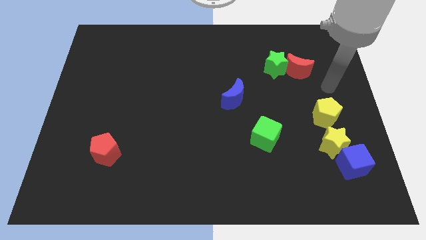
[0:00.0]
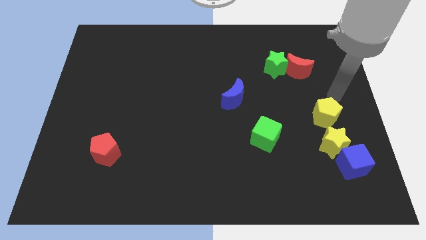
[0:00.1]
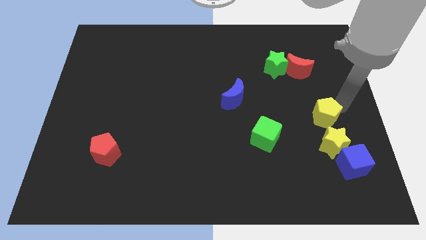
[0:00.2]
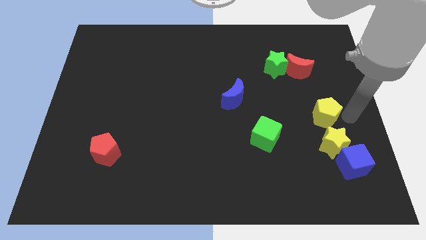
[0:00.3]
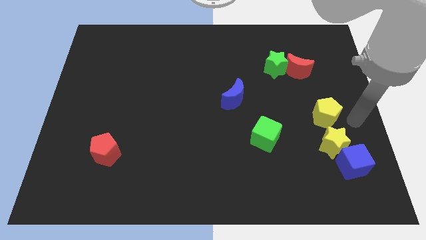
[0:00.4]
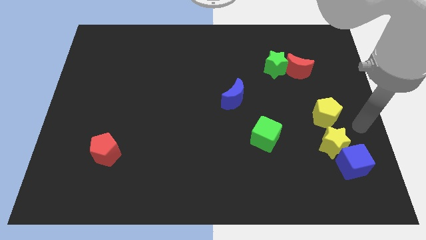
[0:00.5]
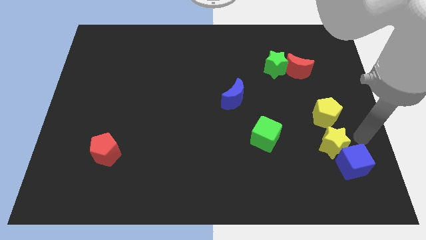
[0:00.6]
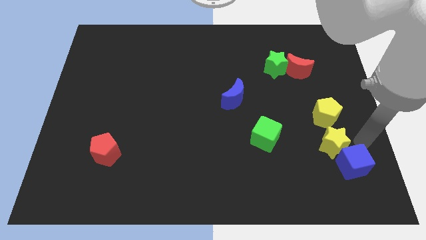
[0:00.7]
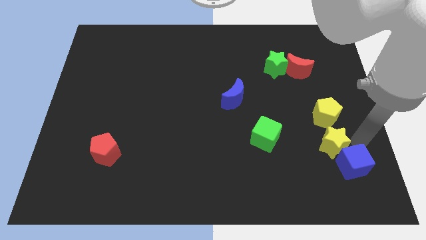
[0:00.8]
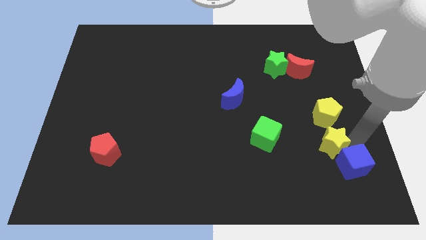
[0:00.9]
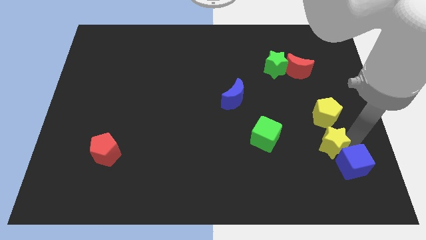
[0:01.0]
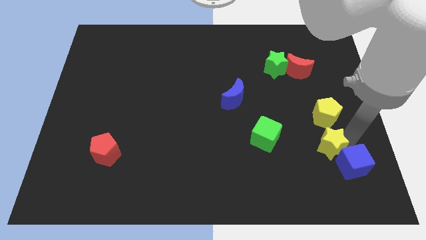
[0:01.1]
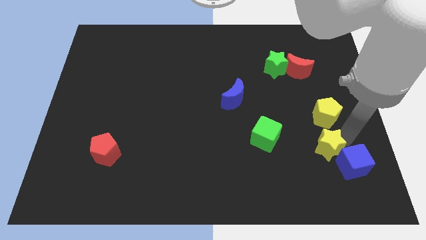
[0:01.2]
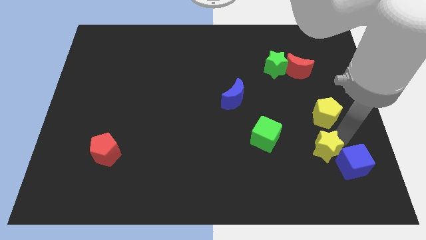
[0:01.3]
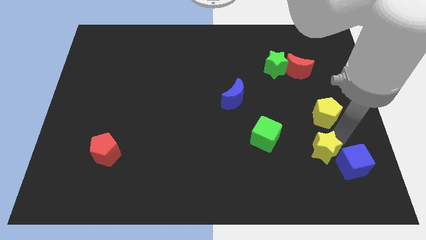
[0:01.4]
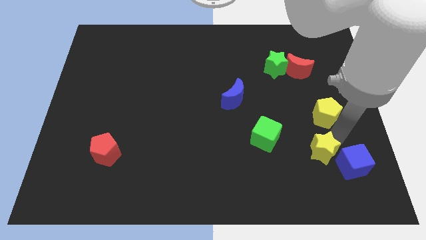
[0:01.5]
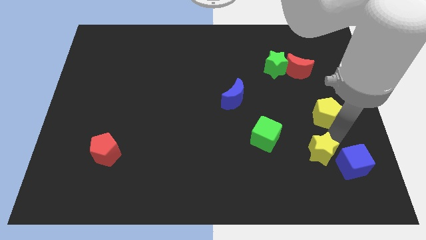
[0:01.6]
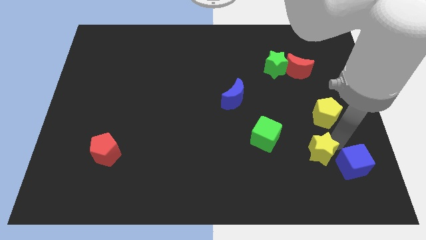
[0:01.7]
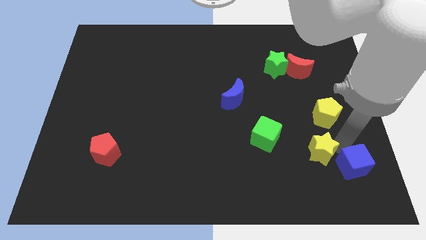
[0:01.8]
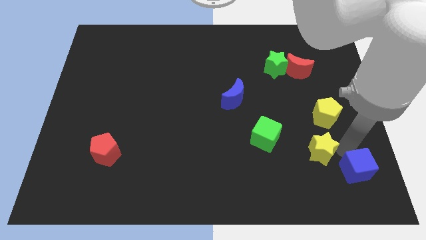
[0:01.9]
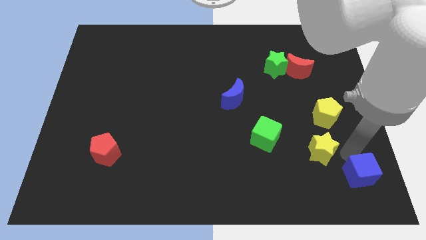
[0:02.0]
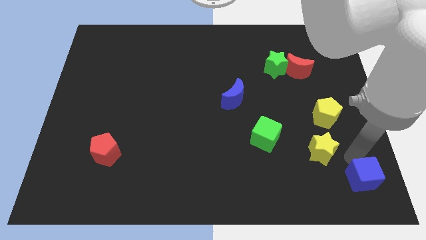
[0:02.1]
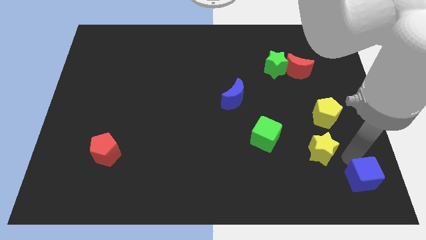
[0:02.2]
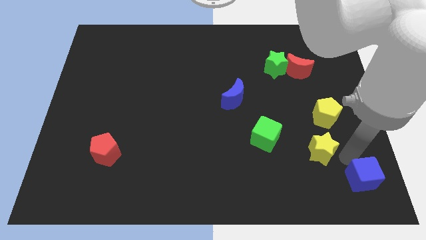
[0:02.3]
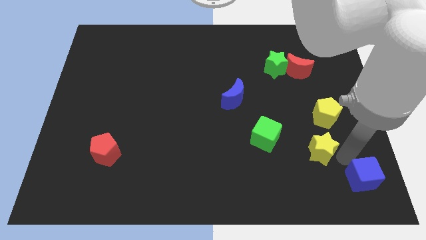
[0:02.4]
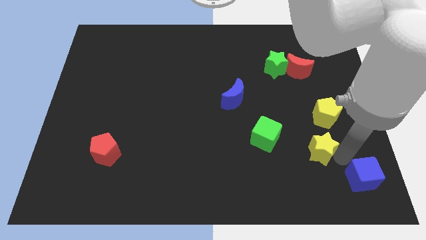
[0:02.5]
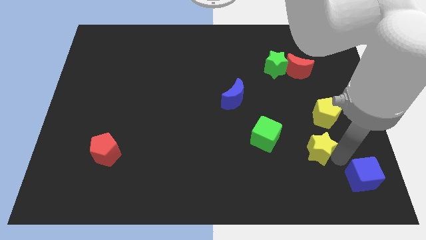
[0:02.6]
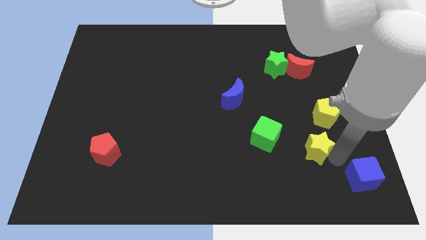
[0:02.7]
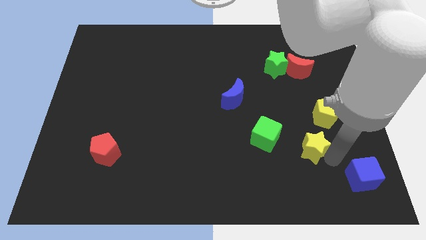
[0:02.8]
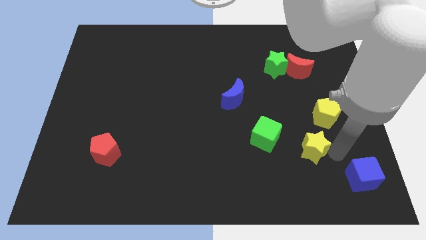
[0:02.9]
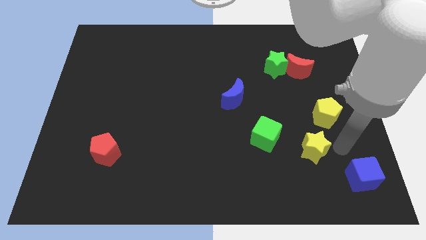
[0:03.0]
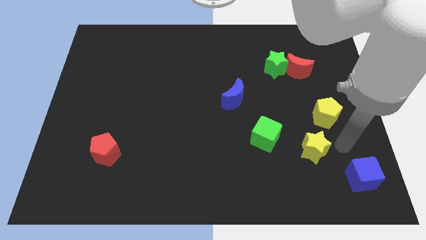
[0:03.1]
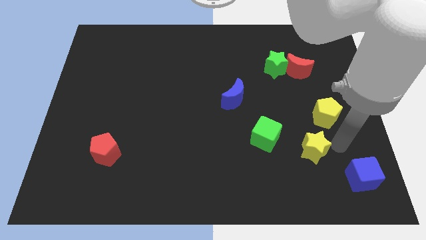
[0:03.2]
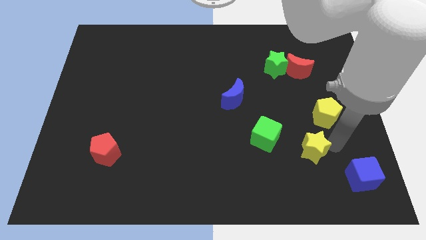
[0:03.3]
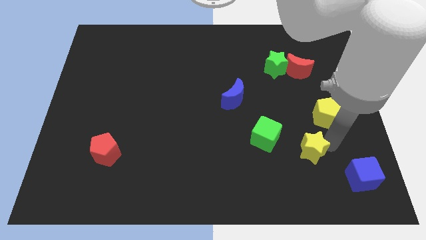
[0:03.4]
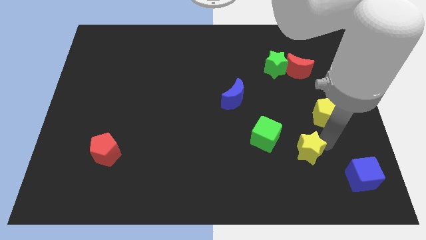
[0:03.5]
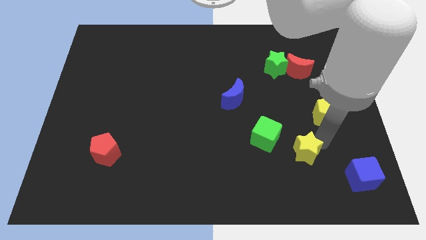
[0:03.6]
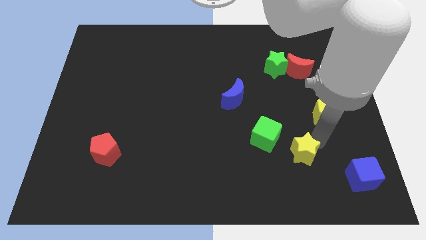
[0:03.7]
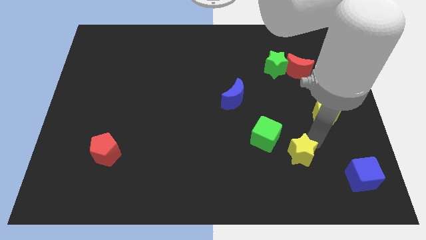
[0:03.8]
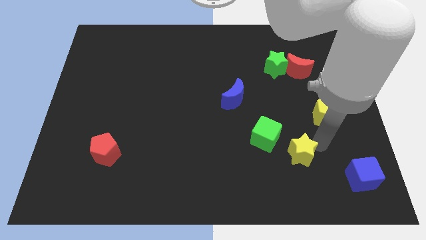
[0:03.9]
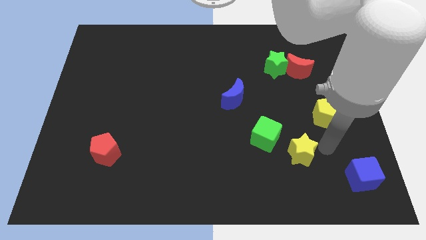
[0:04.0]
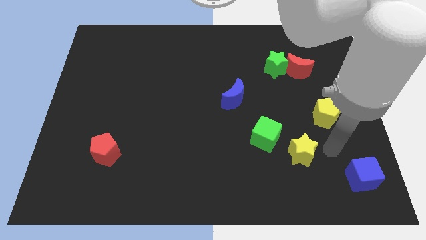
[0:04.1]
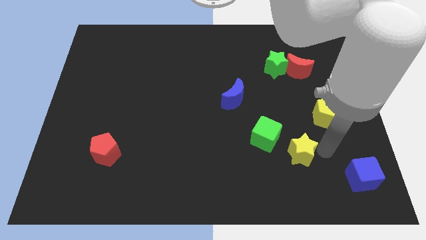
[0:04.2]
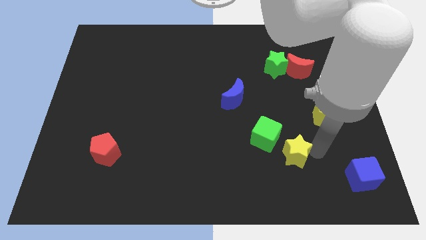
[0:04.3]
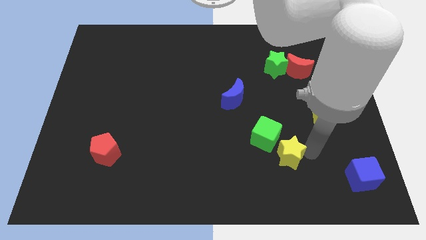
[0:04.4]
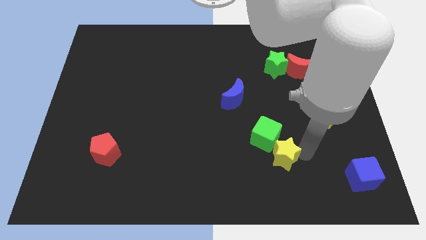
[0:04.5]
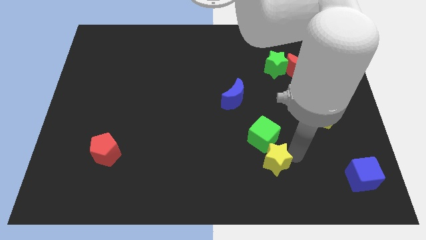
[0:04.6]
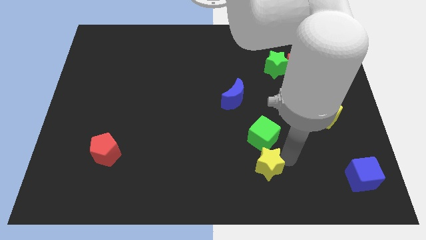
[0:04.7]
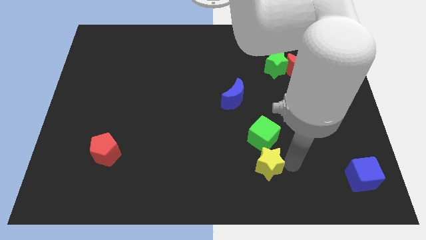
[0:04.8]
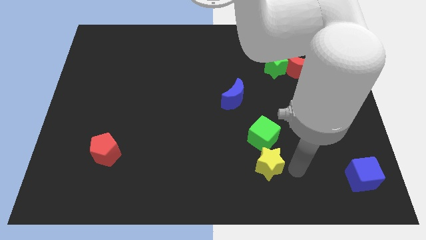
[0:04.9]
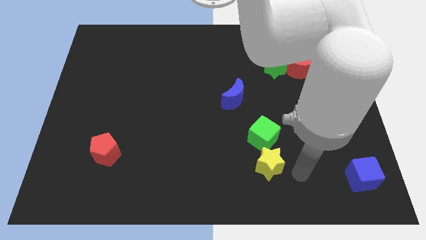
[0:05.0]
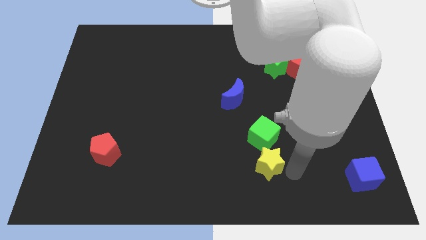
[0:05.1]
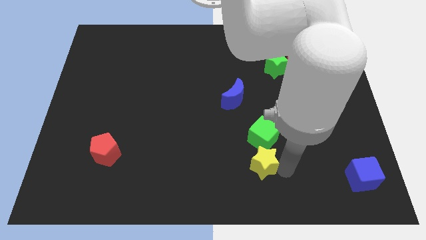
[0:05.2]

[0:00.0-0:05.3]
move the yellow star to the bottom left of the green cube

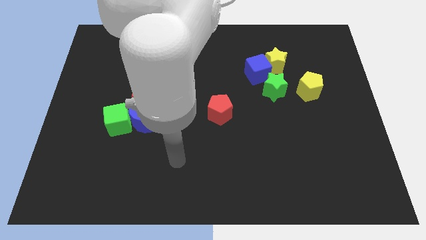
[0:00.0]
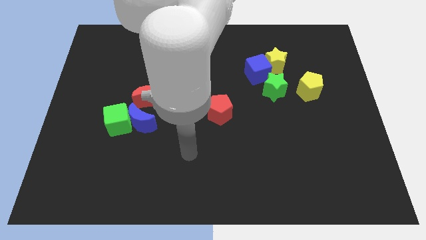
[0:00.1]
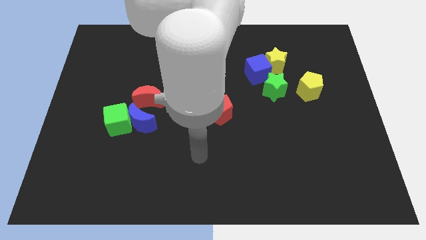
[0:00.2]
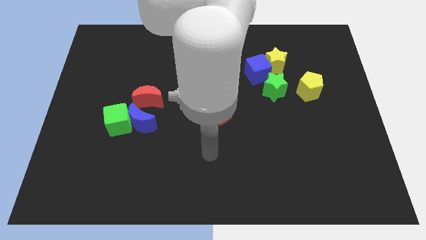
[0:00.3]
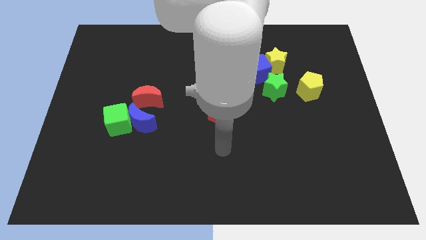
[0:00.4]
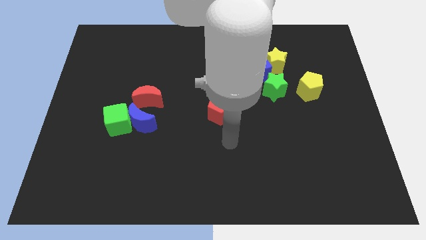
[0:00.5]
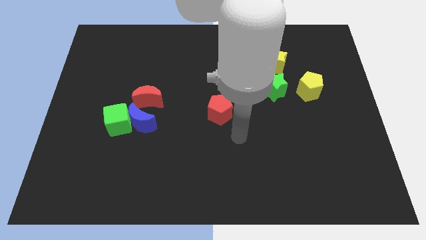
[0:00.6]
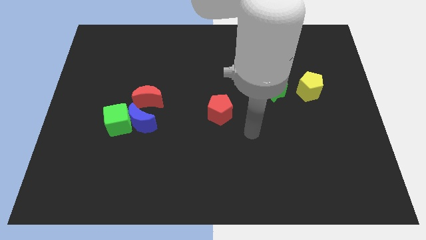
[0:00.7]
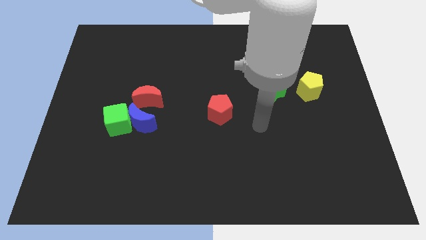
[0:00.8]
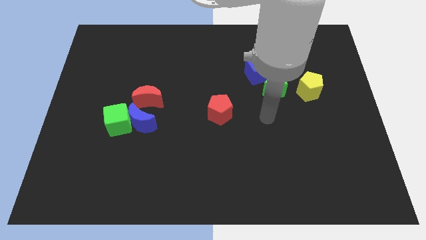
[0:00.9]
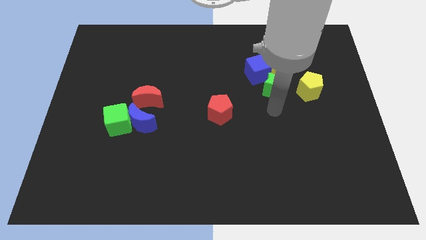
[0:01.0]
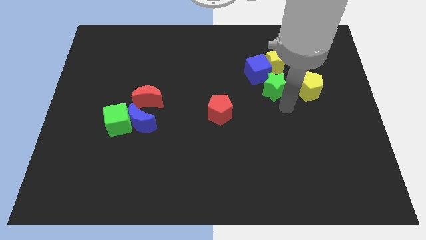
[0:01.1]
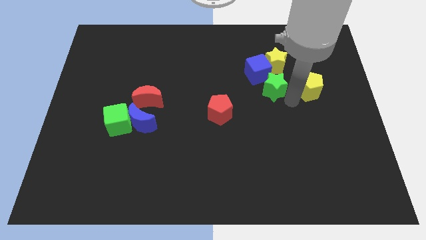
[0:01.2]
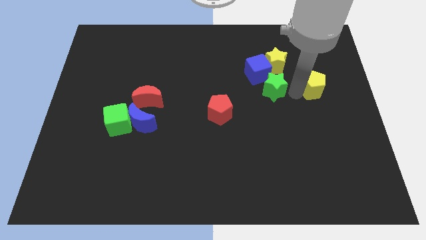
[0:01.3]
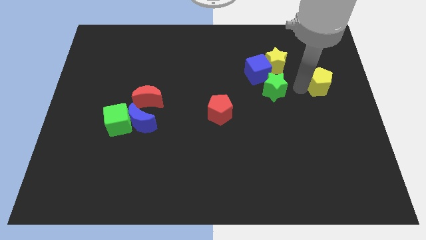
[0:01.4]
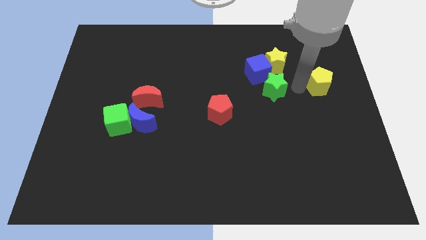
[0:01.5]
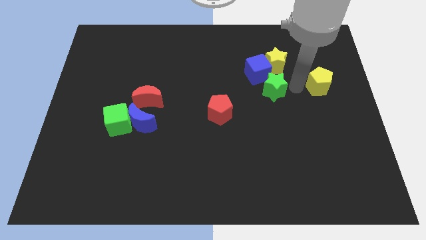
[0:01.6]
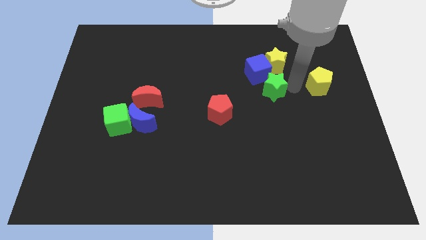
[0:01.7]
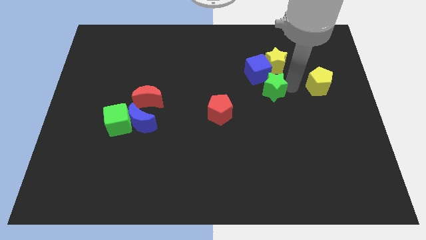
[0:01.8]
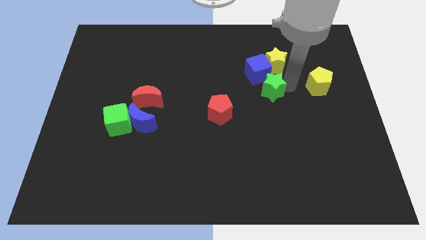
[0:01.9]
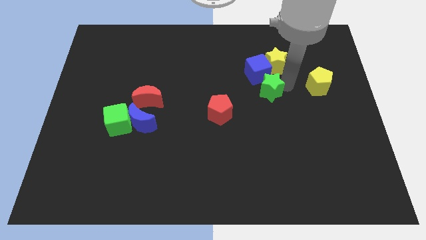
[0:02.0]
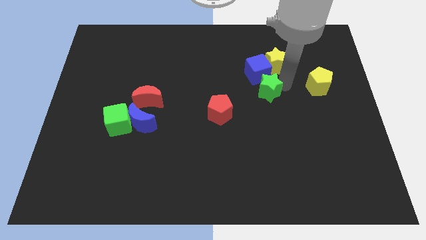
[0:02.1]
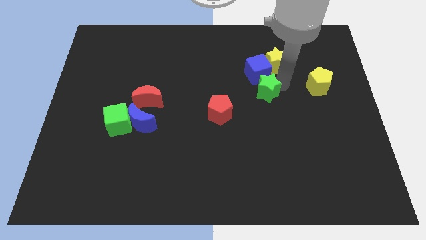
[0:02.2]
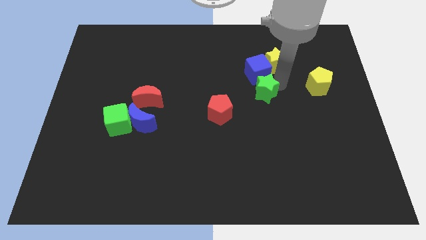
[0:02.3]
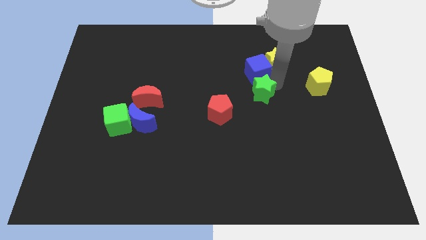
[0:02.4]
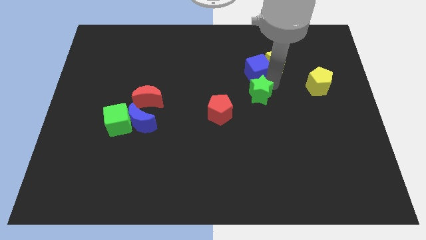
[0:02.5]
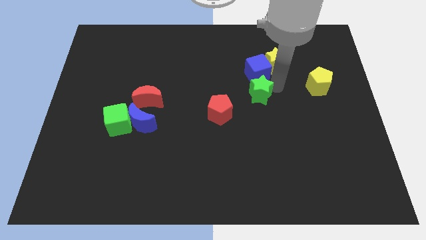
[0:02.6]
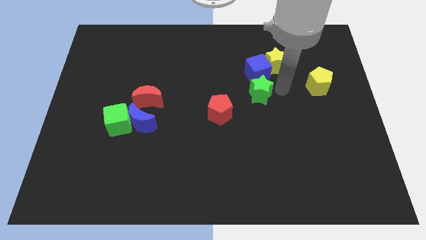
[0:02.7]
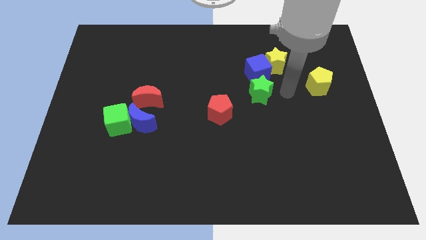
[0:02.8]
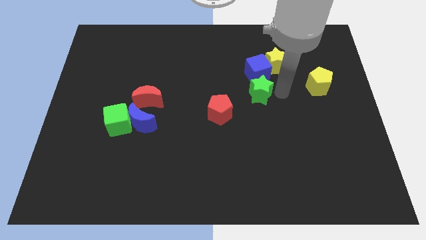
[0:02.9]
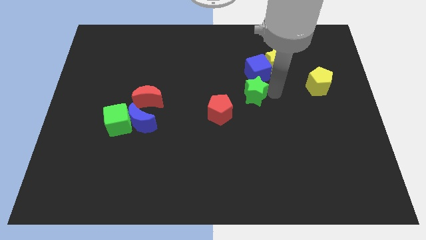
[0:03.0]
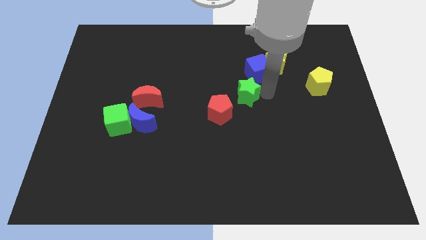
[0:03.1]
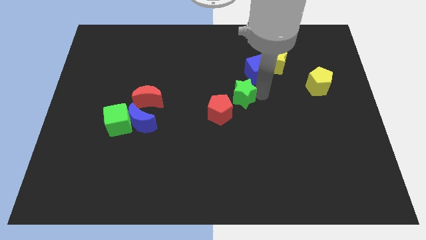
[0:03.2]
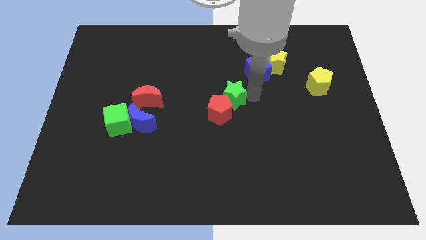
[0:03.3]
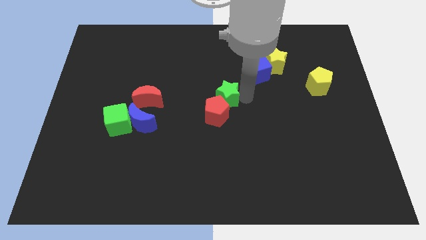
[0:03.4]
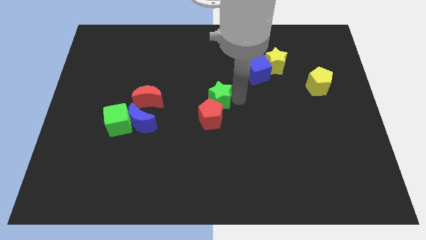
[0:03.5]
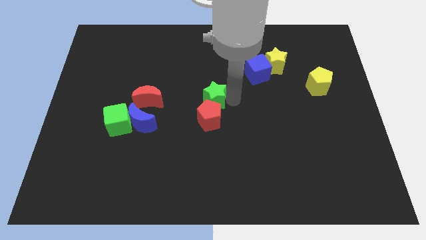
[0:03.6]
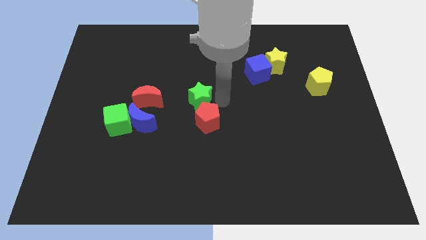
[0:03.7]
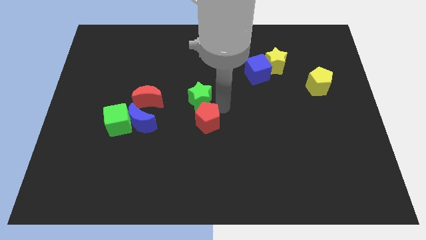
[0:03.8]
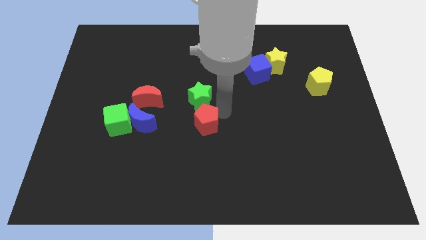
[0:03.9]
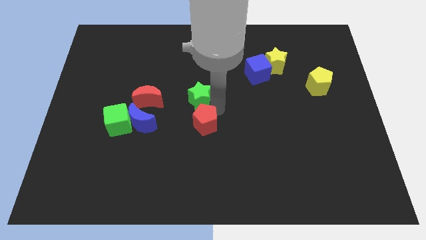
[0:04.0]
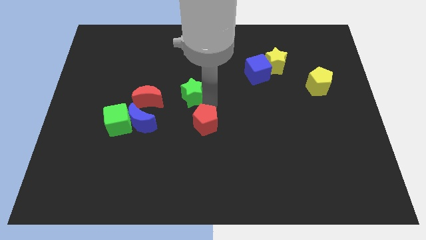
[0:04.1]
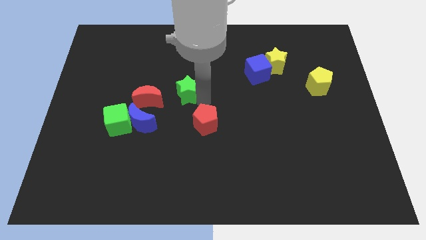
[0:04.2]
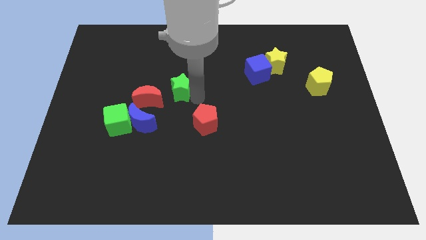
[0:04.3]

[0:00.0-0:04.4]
slide the green star diagonally up and to the right of the red moon
